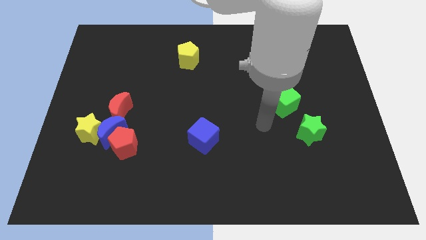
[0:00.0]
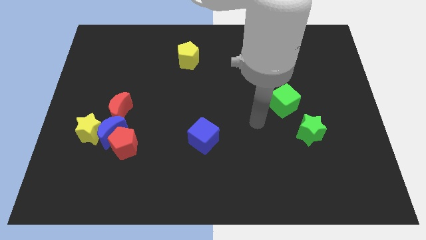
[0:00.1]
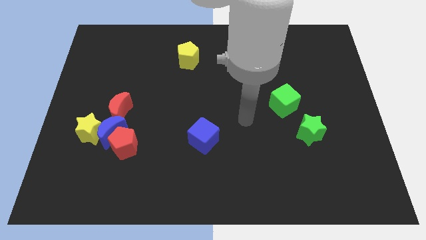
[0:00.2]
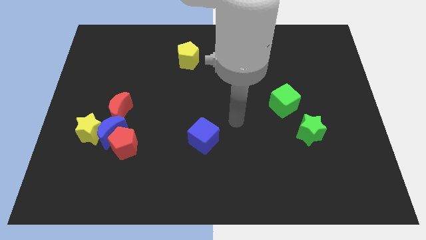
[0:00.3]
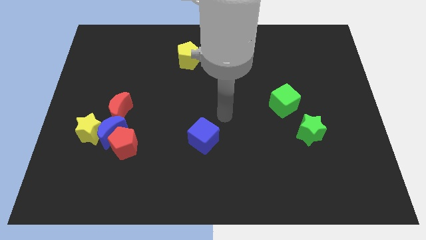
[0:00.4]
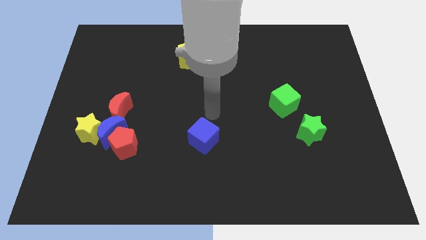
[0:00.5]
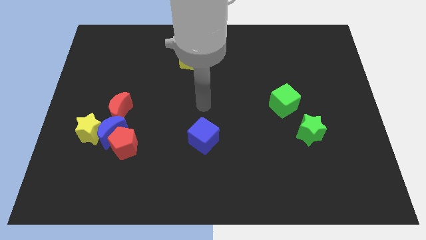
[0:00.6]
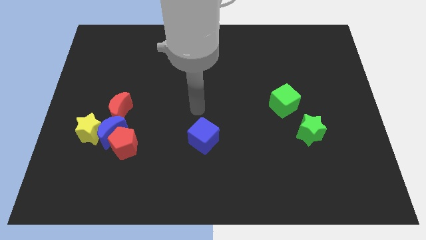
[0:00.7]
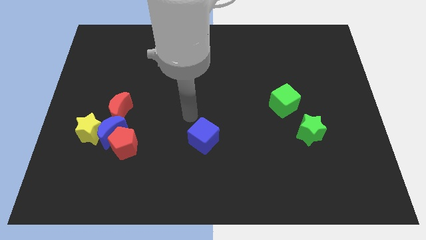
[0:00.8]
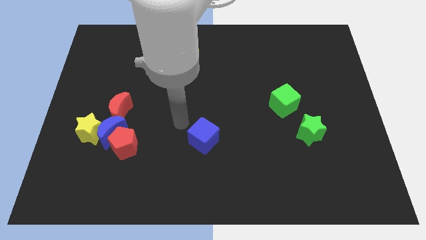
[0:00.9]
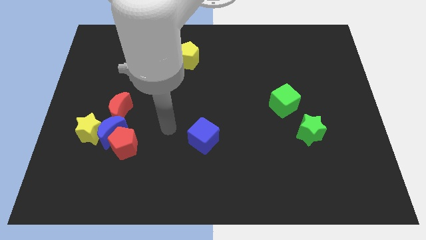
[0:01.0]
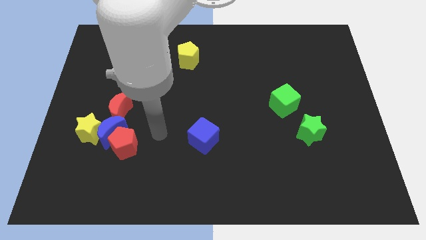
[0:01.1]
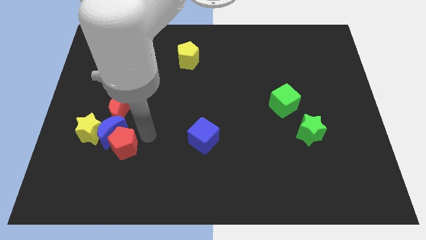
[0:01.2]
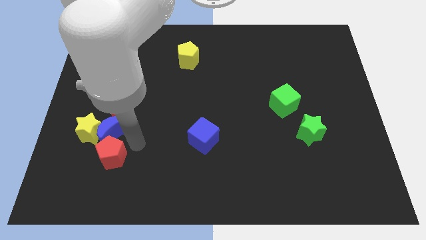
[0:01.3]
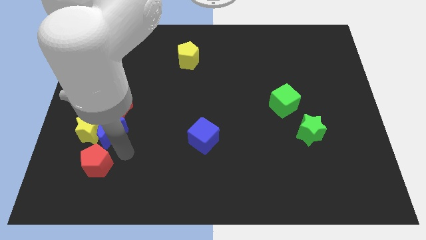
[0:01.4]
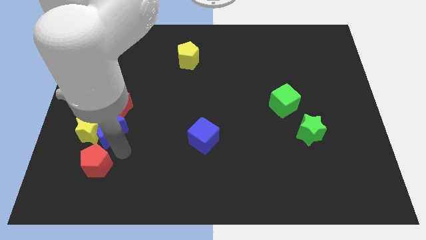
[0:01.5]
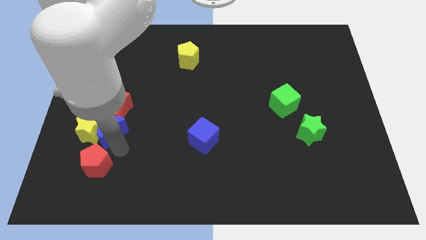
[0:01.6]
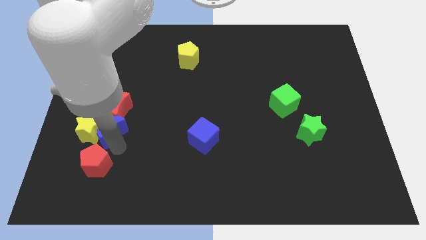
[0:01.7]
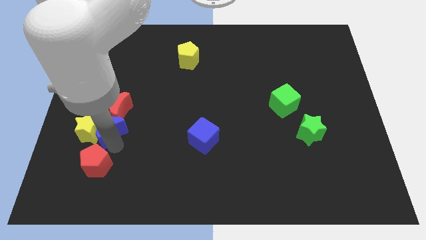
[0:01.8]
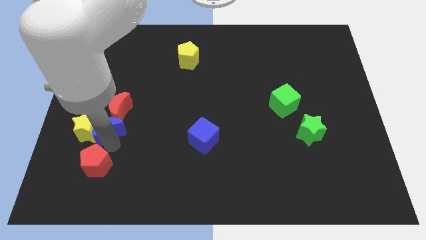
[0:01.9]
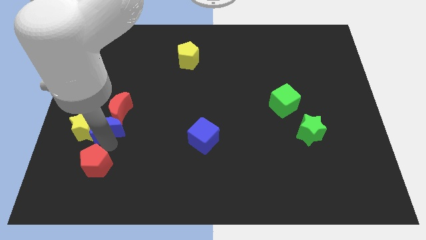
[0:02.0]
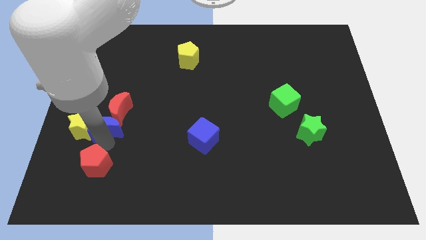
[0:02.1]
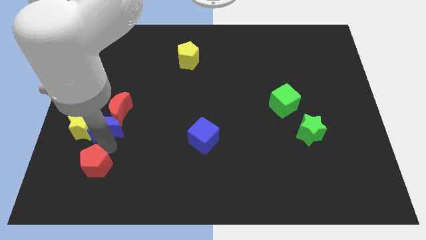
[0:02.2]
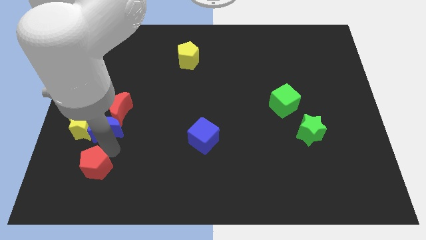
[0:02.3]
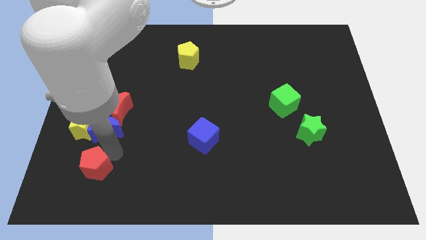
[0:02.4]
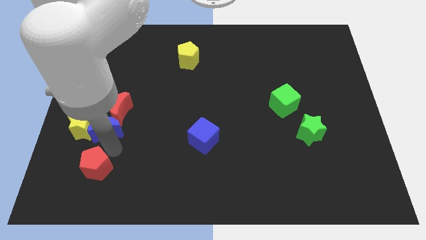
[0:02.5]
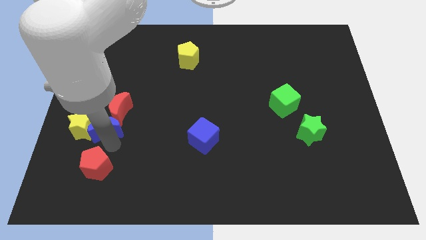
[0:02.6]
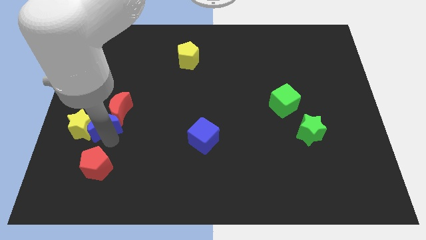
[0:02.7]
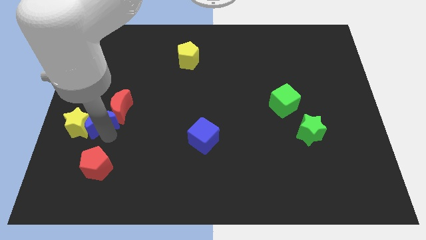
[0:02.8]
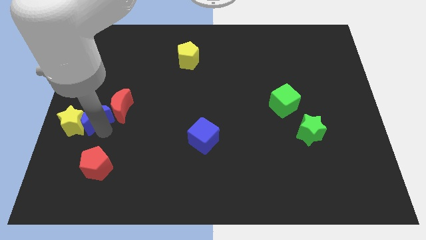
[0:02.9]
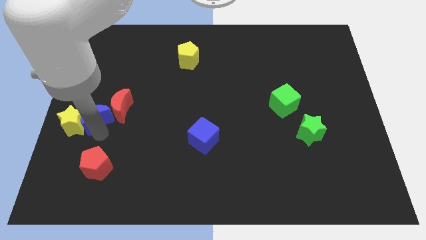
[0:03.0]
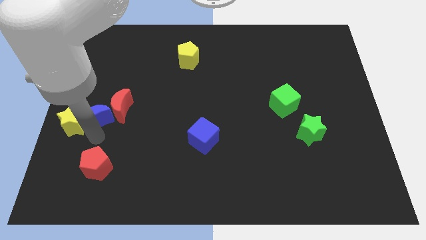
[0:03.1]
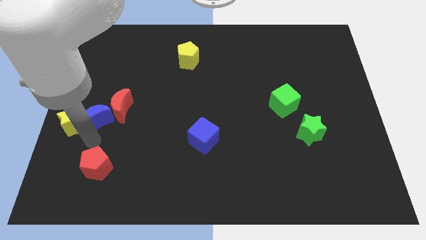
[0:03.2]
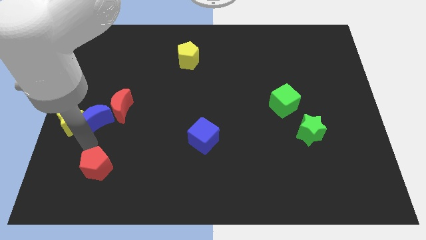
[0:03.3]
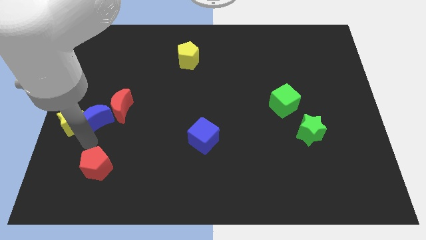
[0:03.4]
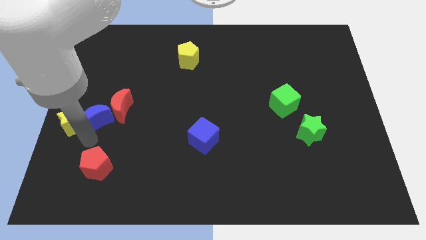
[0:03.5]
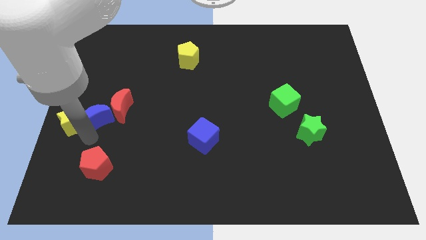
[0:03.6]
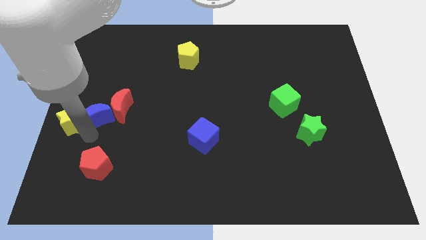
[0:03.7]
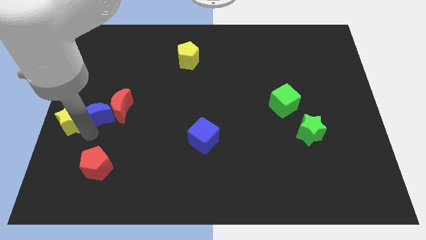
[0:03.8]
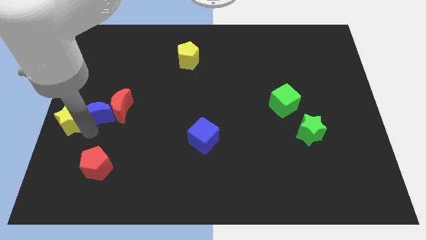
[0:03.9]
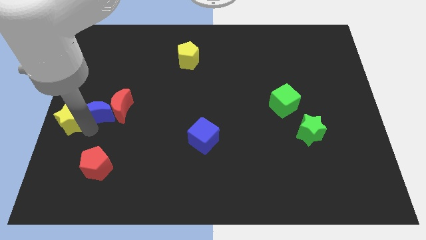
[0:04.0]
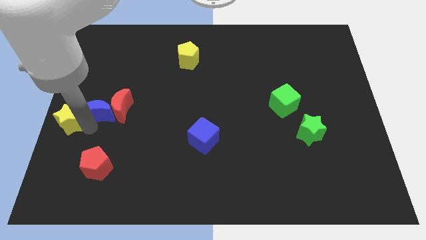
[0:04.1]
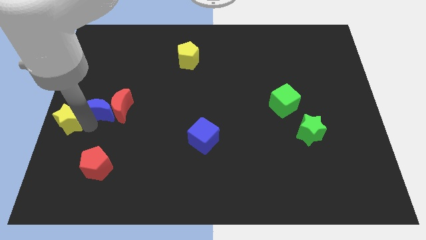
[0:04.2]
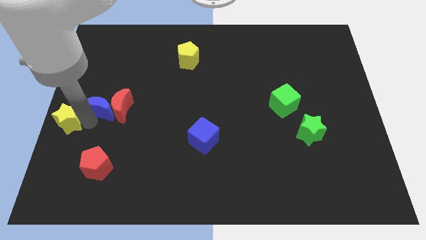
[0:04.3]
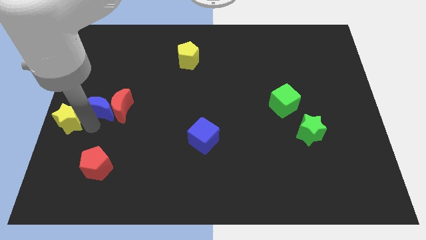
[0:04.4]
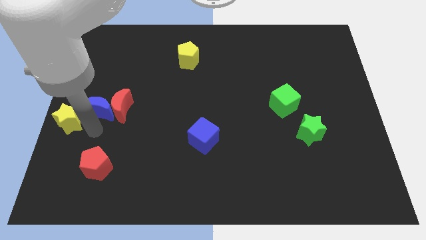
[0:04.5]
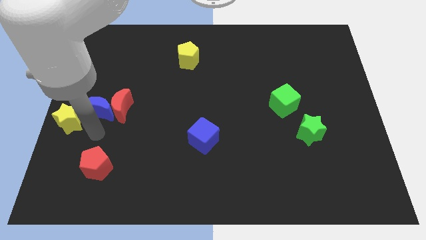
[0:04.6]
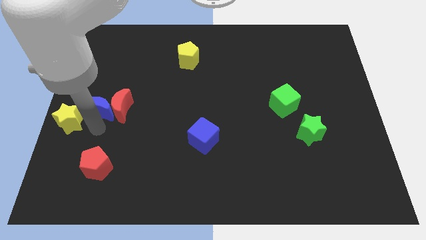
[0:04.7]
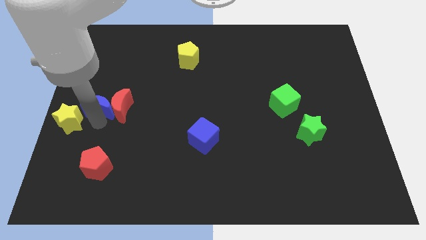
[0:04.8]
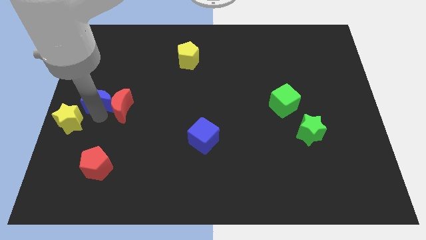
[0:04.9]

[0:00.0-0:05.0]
slide the blue moon up a little bit

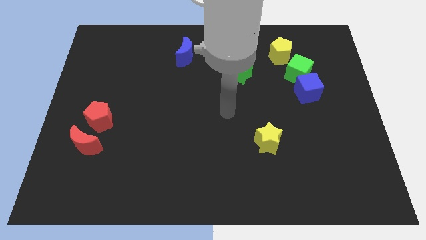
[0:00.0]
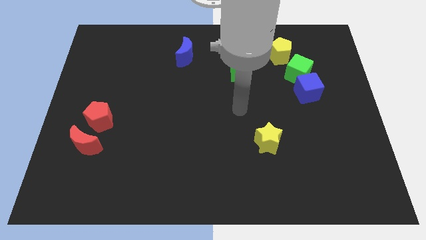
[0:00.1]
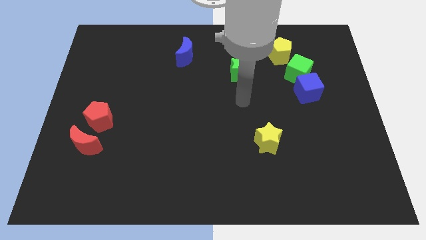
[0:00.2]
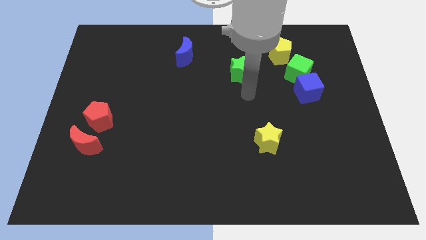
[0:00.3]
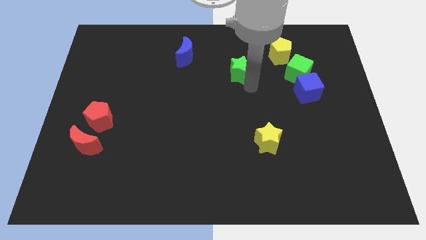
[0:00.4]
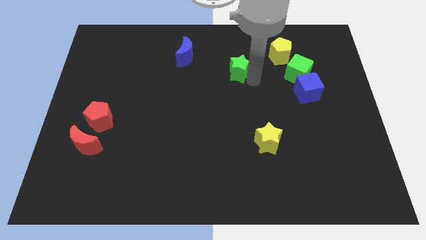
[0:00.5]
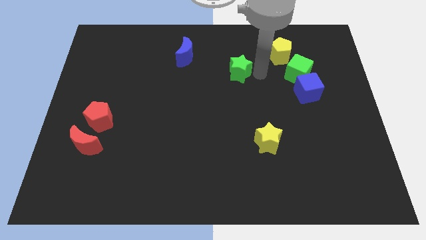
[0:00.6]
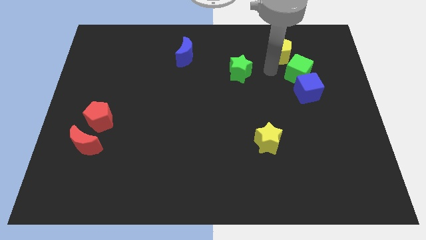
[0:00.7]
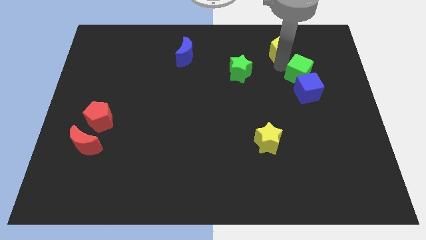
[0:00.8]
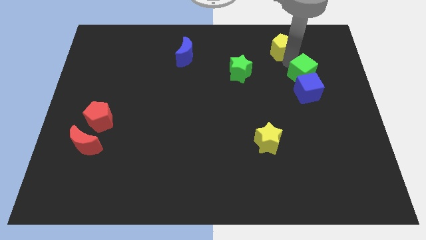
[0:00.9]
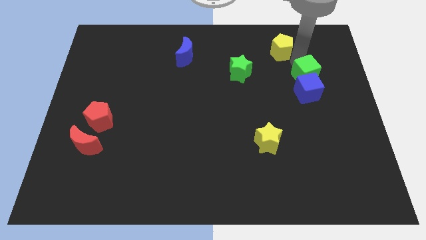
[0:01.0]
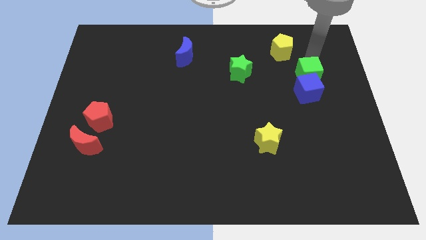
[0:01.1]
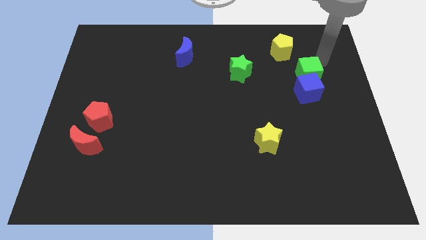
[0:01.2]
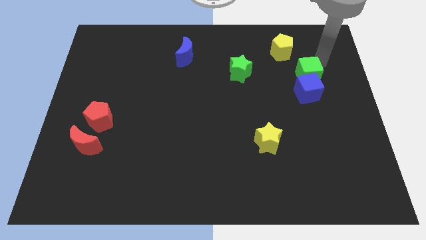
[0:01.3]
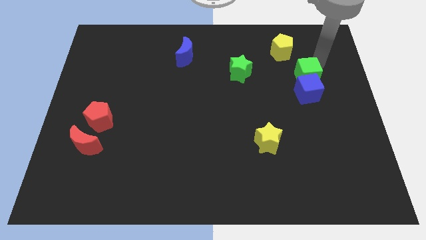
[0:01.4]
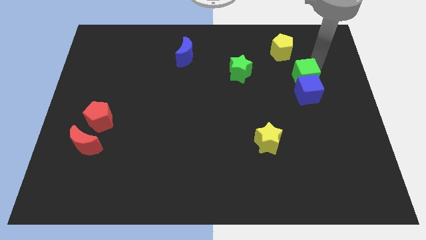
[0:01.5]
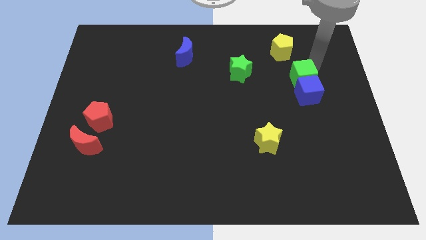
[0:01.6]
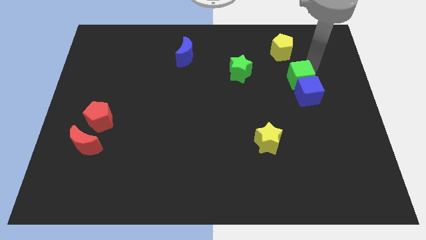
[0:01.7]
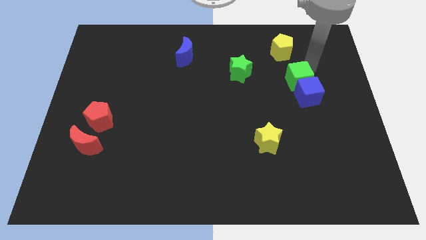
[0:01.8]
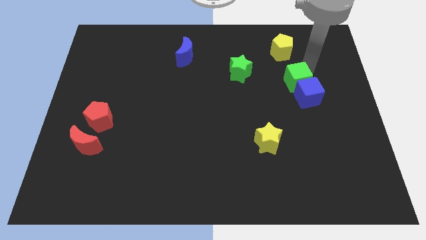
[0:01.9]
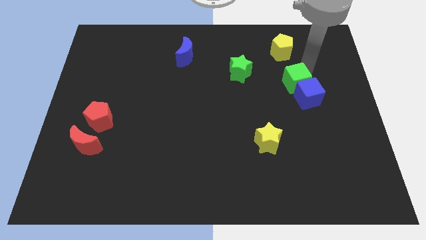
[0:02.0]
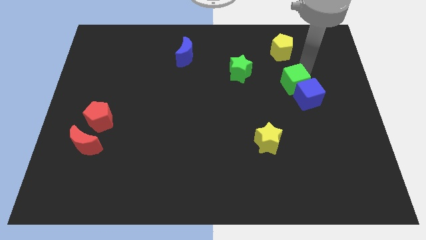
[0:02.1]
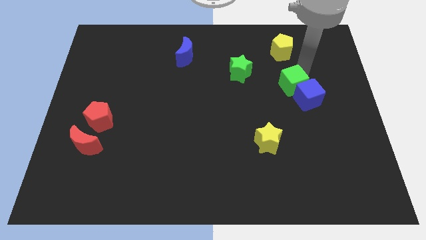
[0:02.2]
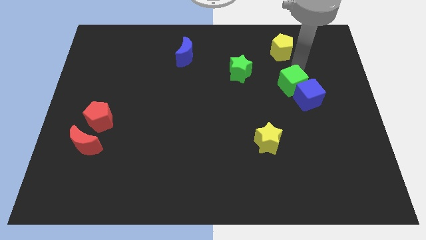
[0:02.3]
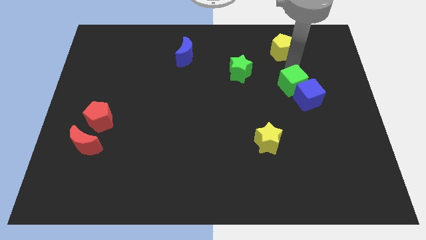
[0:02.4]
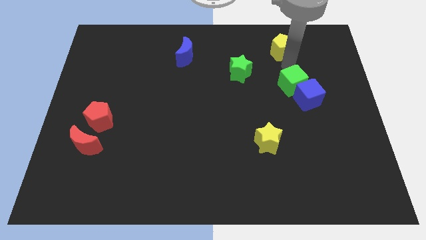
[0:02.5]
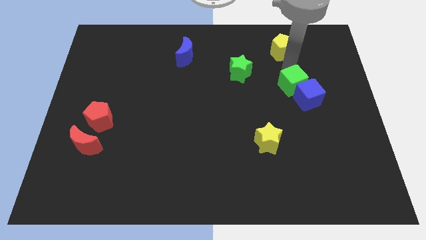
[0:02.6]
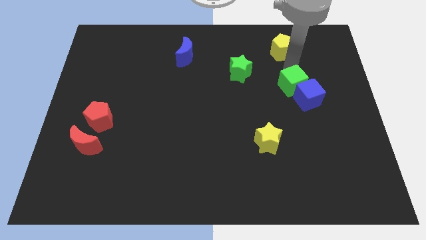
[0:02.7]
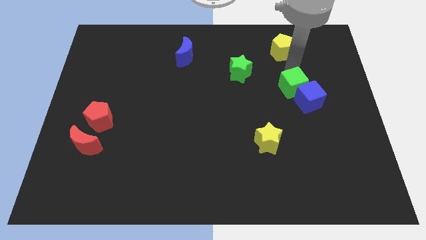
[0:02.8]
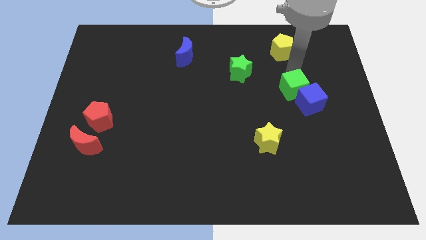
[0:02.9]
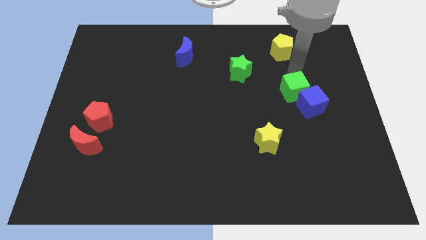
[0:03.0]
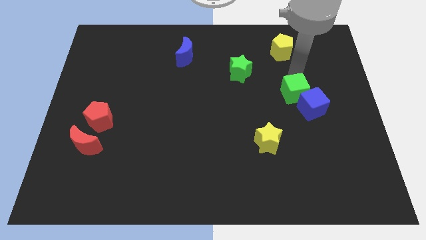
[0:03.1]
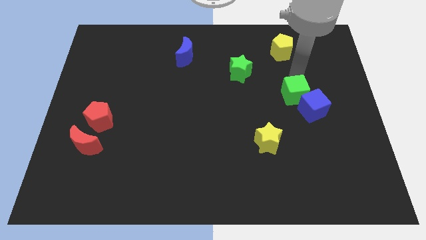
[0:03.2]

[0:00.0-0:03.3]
slide the green cube down a bit
